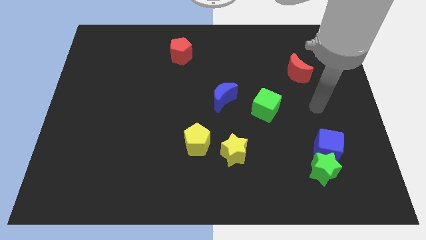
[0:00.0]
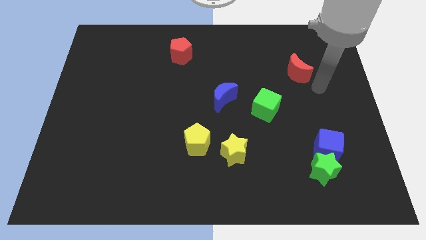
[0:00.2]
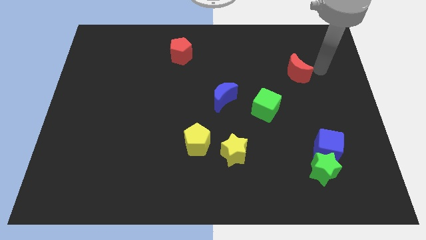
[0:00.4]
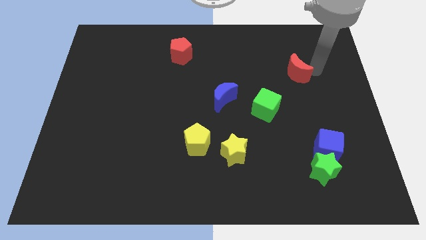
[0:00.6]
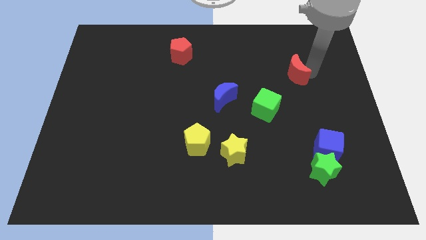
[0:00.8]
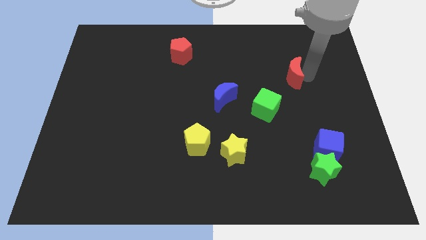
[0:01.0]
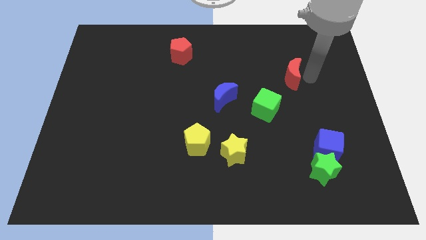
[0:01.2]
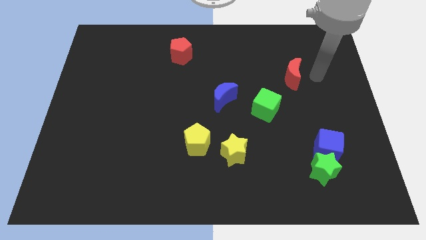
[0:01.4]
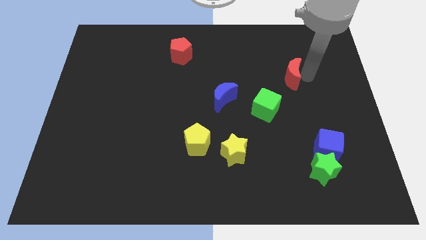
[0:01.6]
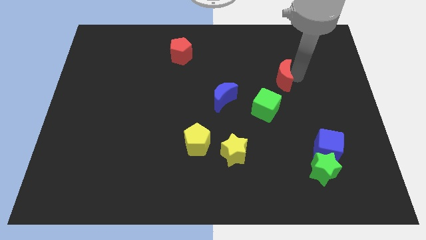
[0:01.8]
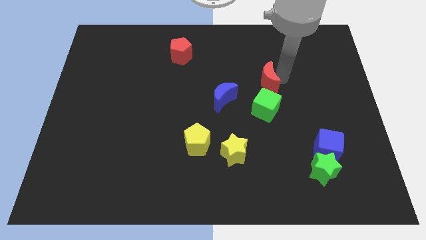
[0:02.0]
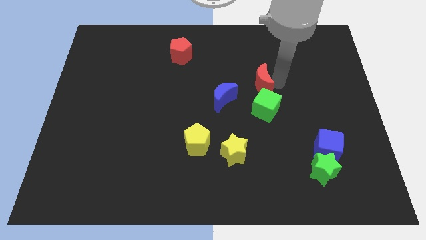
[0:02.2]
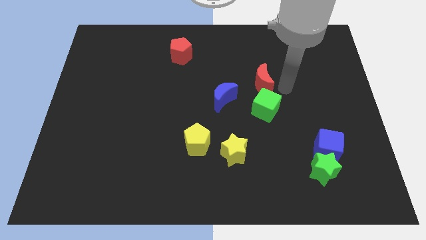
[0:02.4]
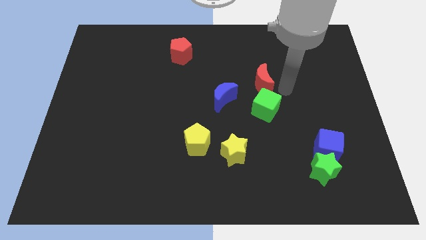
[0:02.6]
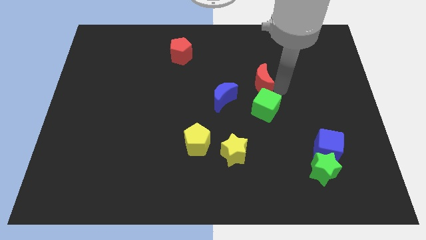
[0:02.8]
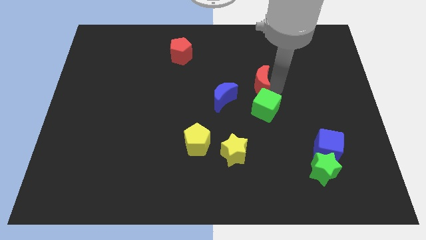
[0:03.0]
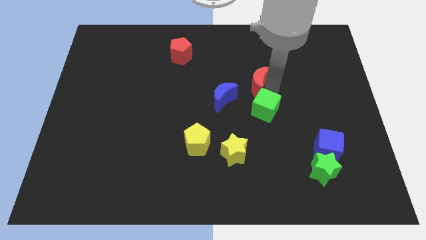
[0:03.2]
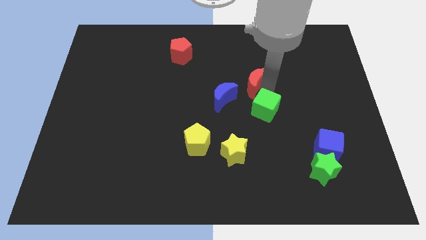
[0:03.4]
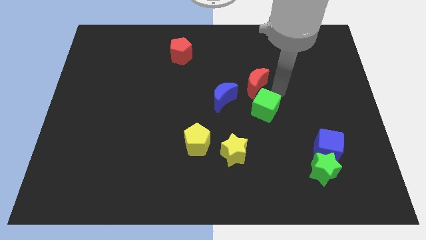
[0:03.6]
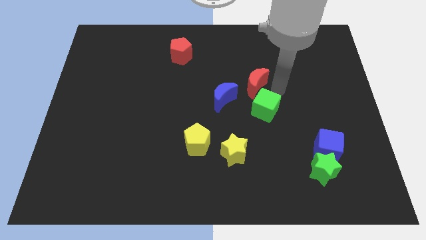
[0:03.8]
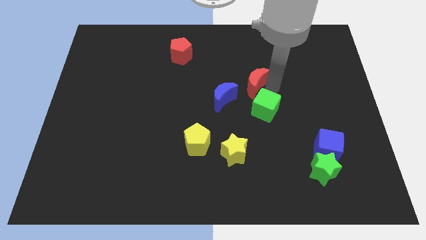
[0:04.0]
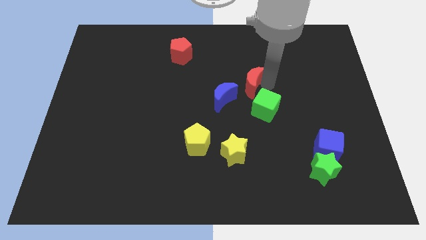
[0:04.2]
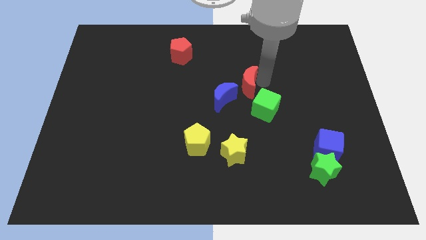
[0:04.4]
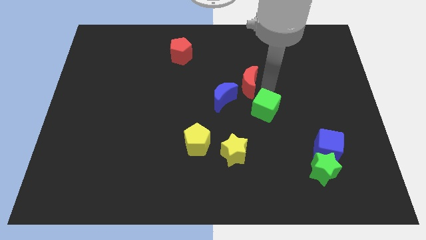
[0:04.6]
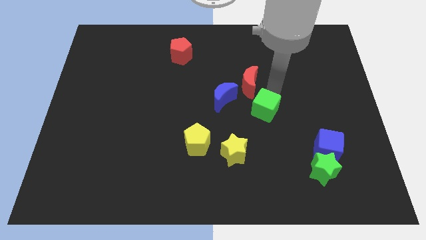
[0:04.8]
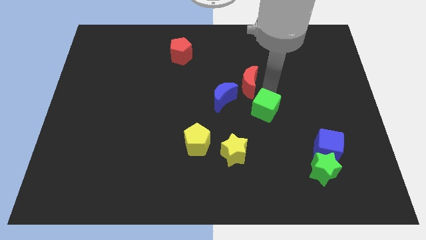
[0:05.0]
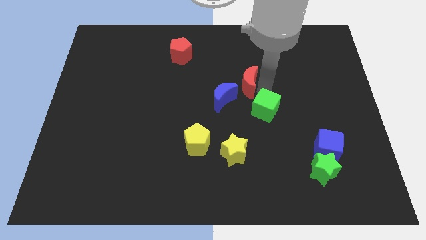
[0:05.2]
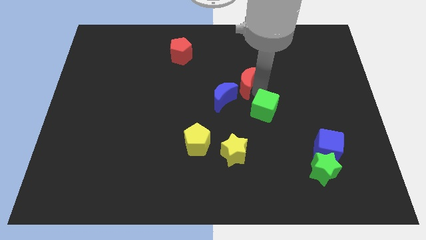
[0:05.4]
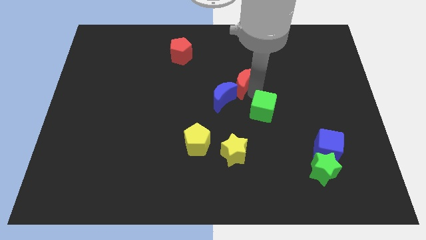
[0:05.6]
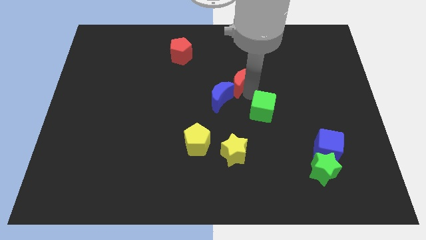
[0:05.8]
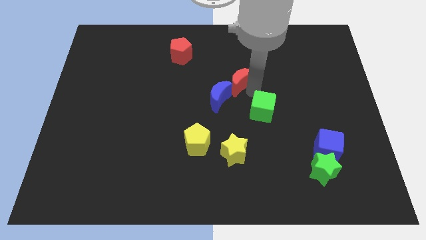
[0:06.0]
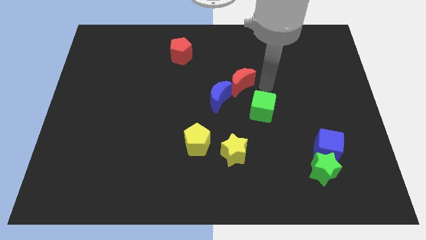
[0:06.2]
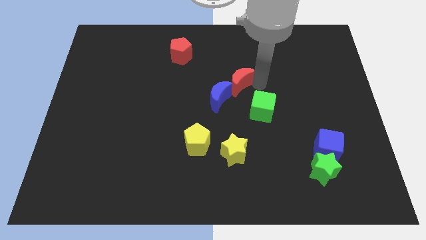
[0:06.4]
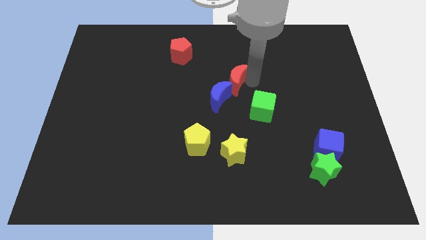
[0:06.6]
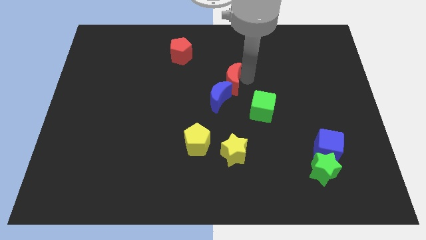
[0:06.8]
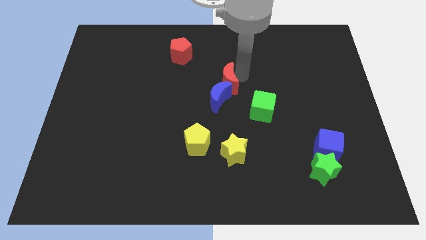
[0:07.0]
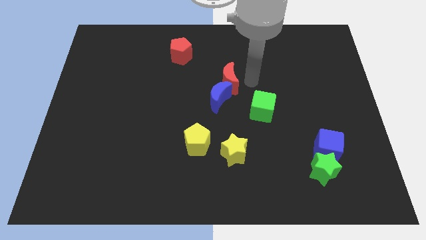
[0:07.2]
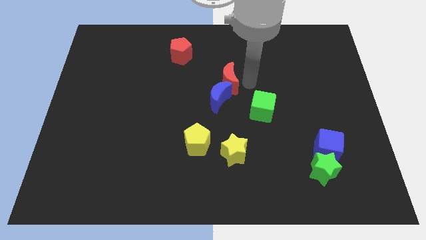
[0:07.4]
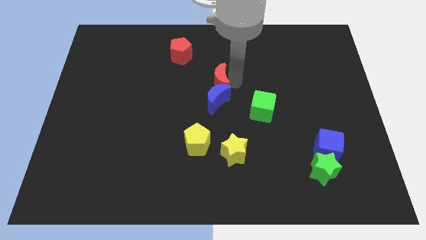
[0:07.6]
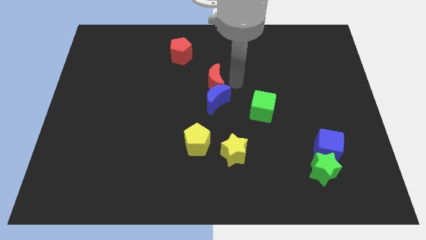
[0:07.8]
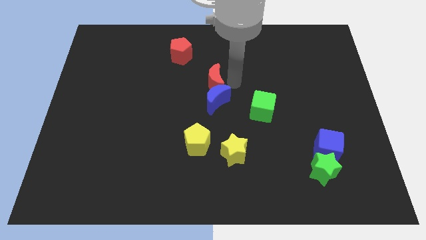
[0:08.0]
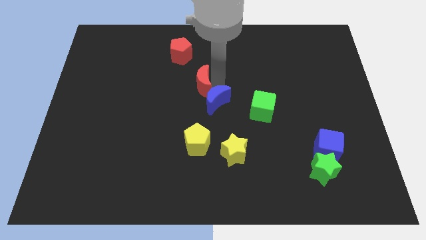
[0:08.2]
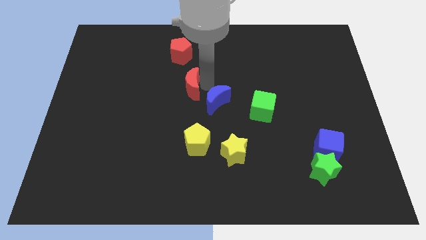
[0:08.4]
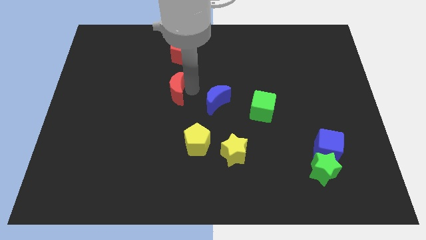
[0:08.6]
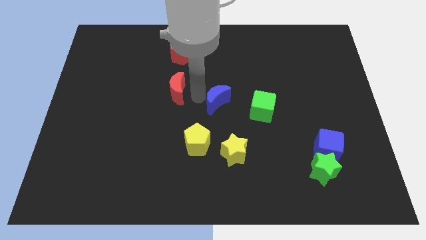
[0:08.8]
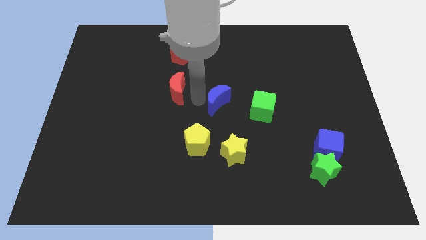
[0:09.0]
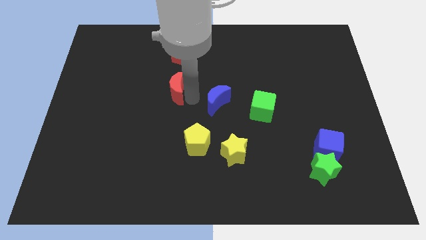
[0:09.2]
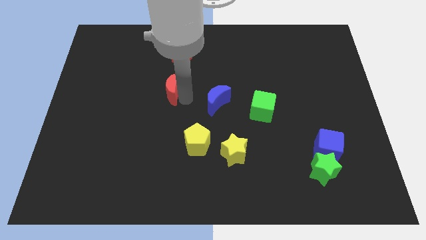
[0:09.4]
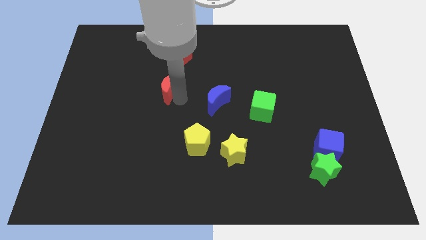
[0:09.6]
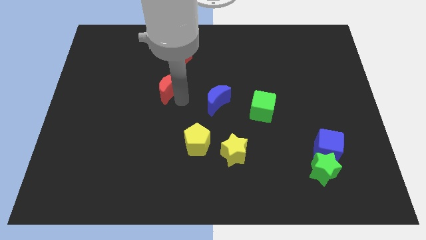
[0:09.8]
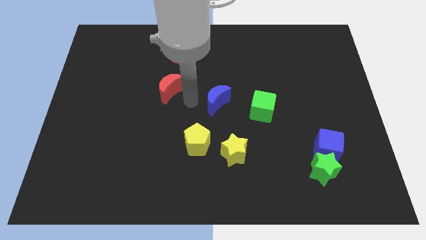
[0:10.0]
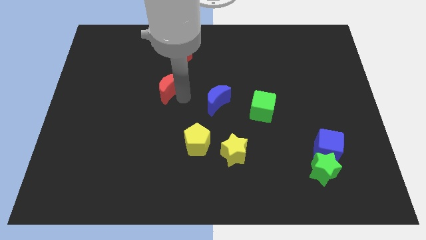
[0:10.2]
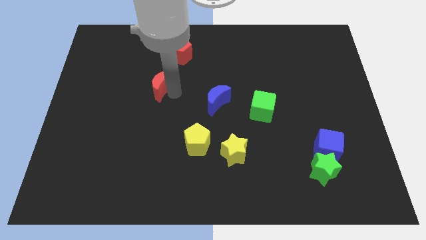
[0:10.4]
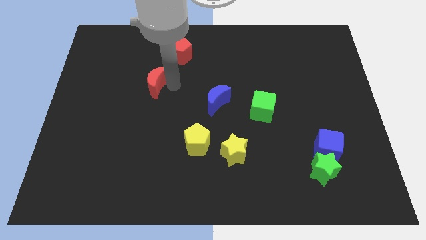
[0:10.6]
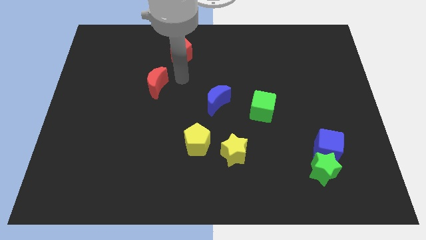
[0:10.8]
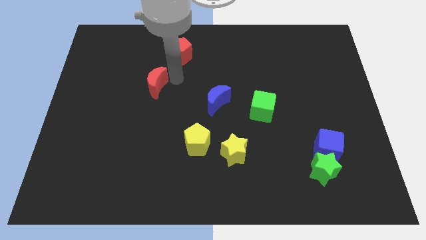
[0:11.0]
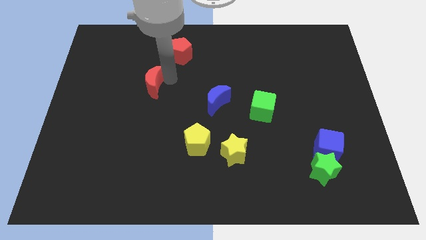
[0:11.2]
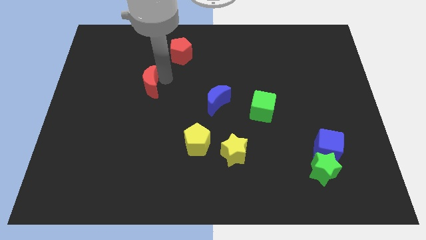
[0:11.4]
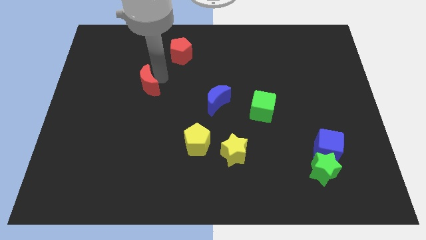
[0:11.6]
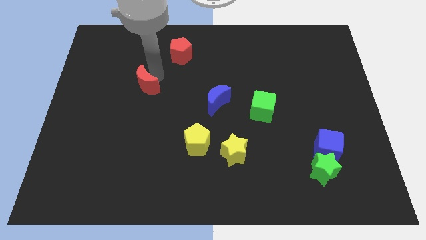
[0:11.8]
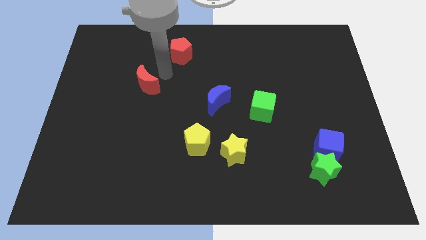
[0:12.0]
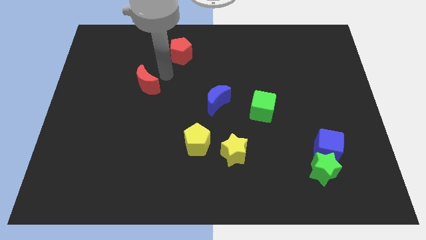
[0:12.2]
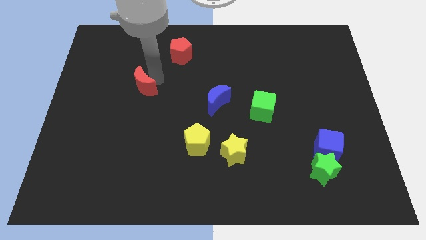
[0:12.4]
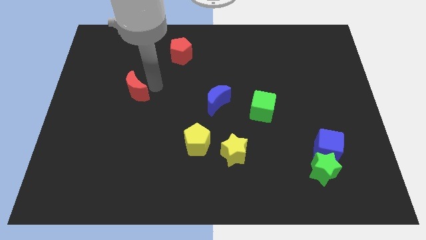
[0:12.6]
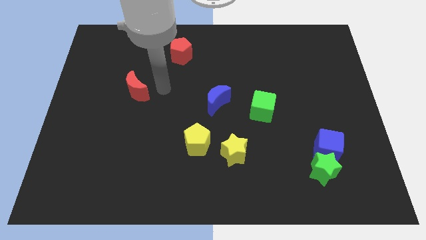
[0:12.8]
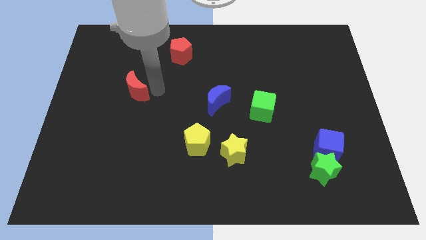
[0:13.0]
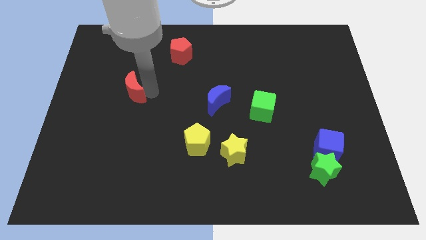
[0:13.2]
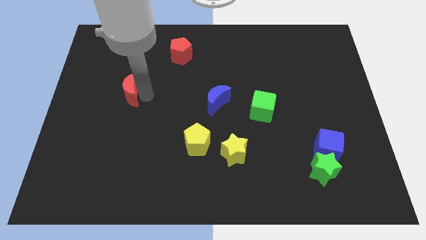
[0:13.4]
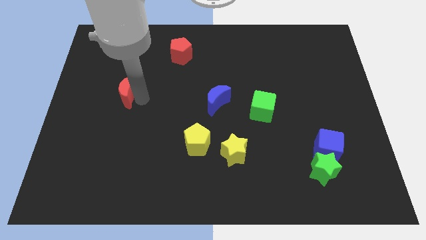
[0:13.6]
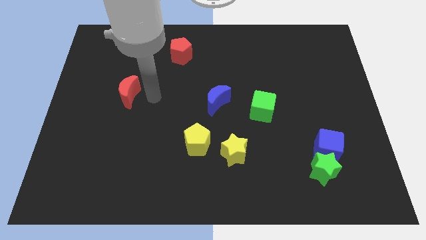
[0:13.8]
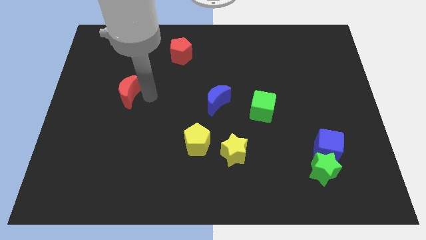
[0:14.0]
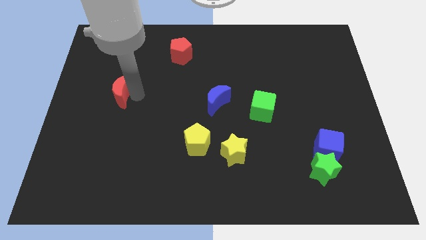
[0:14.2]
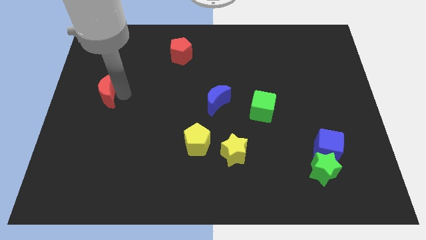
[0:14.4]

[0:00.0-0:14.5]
slide the red moon to the left side of the board
